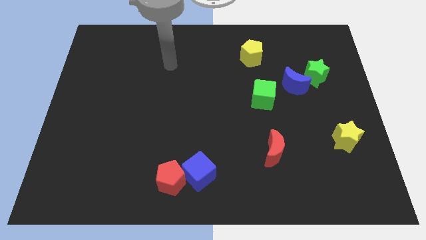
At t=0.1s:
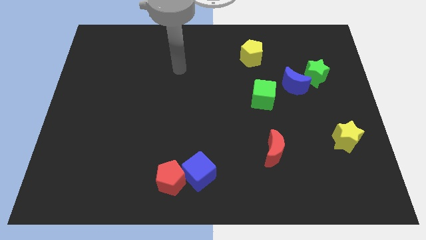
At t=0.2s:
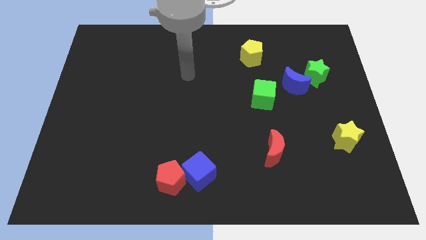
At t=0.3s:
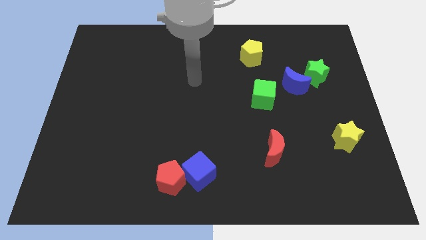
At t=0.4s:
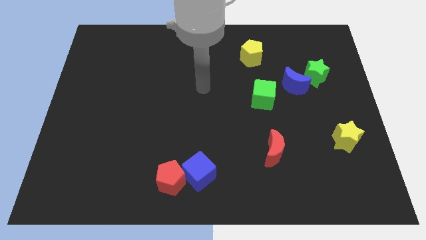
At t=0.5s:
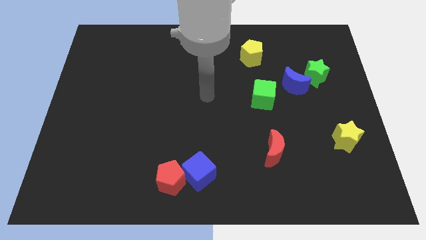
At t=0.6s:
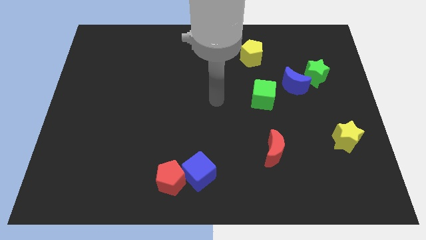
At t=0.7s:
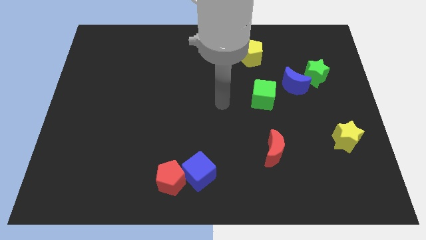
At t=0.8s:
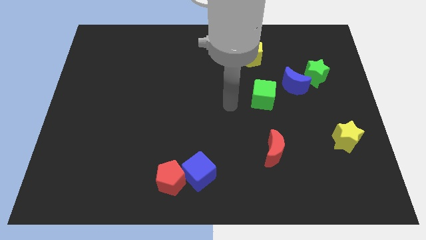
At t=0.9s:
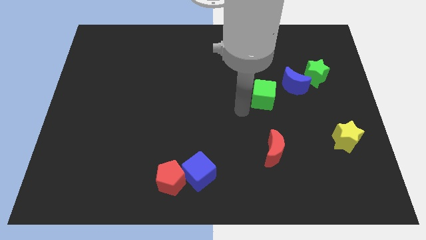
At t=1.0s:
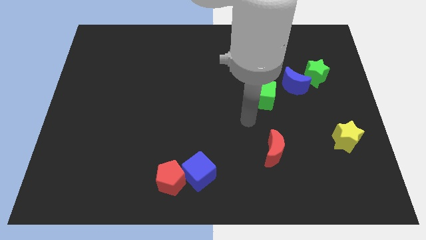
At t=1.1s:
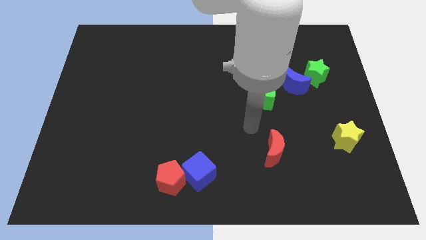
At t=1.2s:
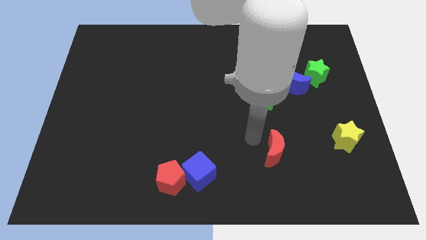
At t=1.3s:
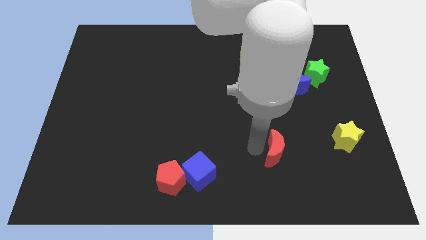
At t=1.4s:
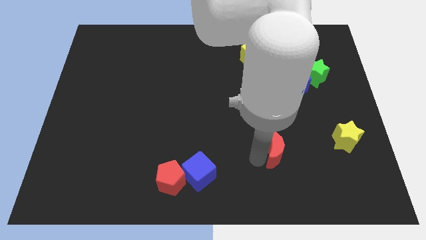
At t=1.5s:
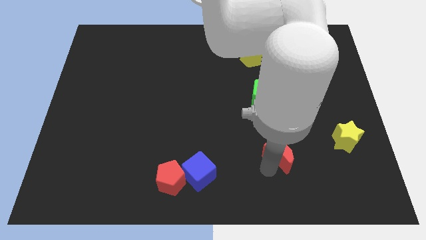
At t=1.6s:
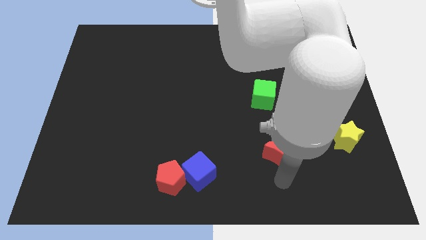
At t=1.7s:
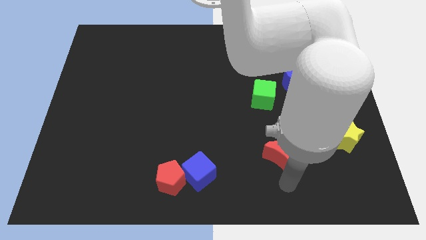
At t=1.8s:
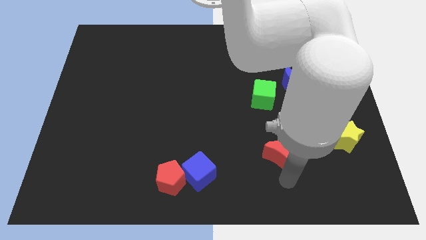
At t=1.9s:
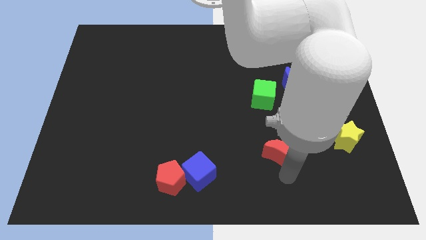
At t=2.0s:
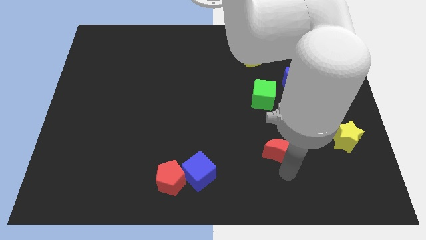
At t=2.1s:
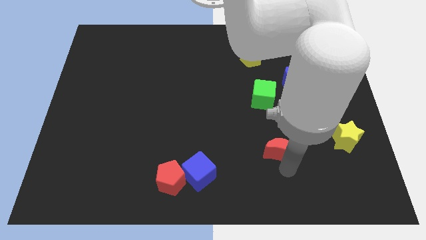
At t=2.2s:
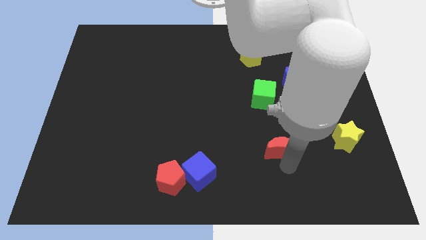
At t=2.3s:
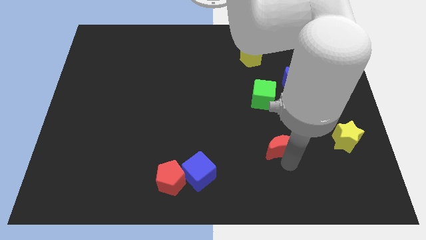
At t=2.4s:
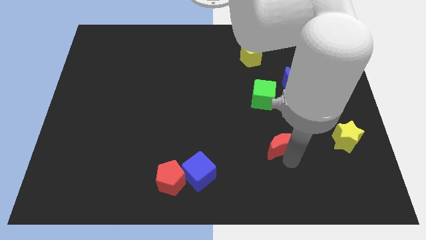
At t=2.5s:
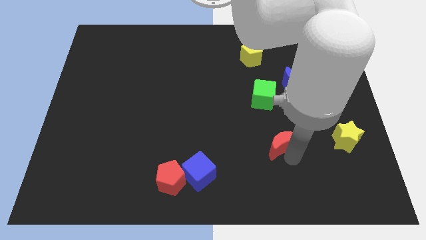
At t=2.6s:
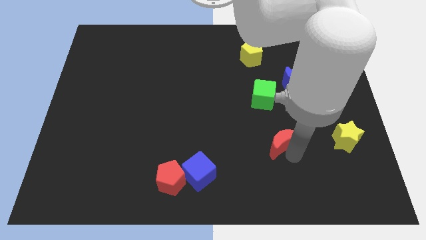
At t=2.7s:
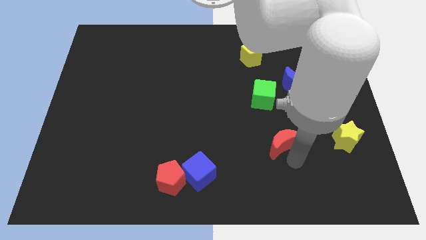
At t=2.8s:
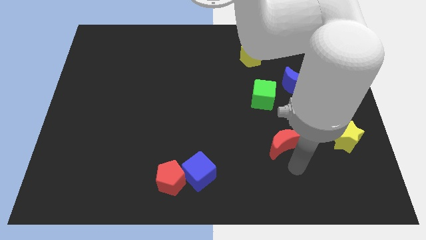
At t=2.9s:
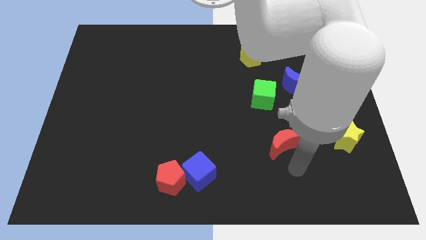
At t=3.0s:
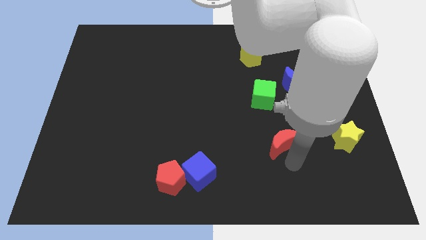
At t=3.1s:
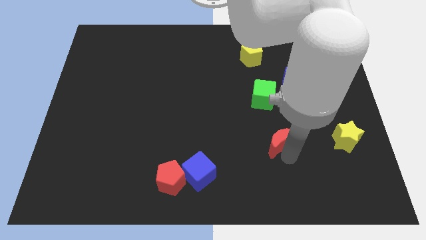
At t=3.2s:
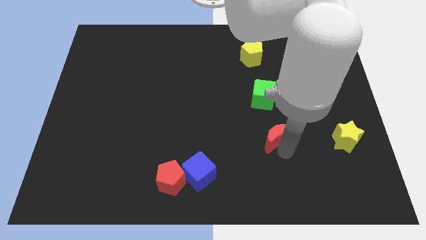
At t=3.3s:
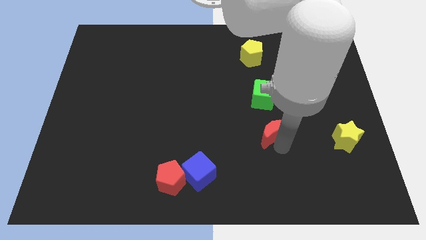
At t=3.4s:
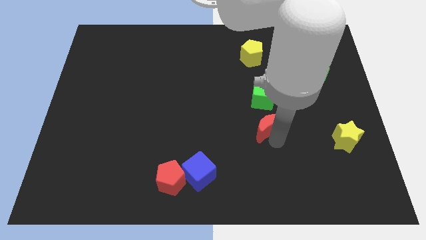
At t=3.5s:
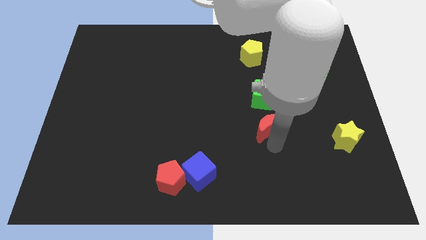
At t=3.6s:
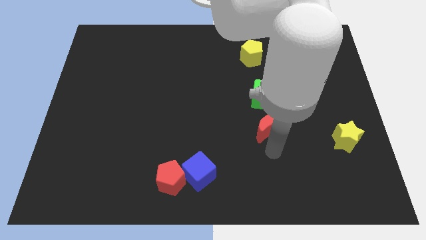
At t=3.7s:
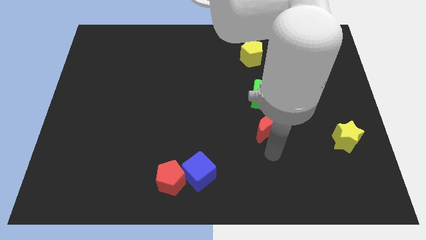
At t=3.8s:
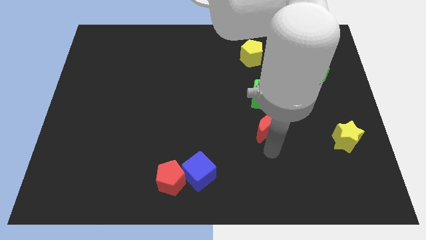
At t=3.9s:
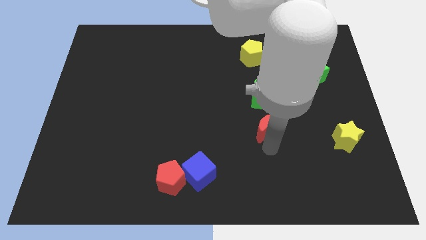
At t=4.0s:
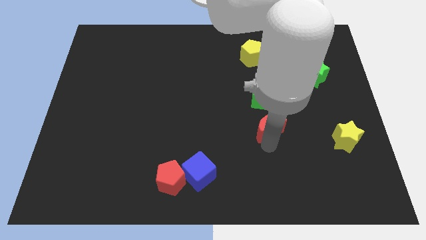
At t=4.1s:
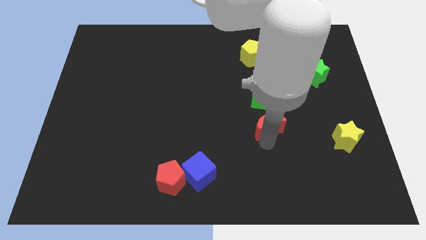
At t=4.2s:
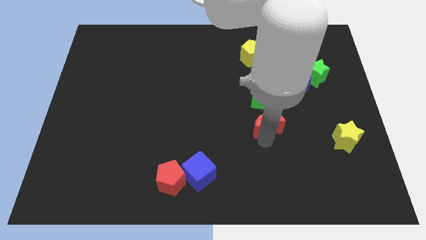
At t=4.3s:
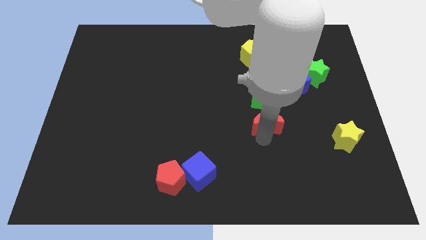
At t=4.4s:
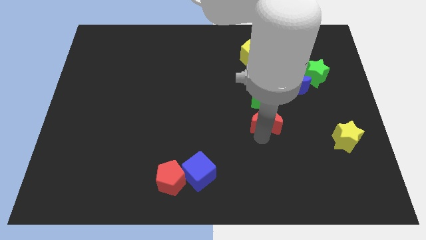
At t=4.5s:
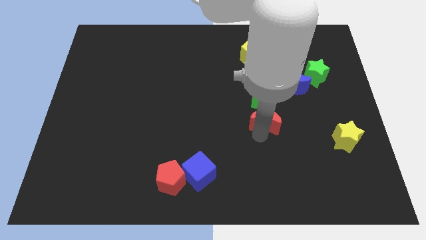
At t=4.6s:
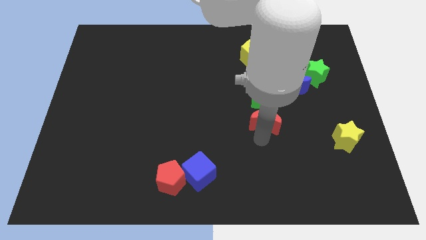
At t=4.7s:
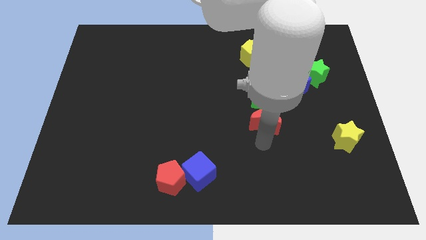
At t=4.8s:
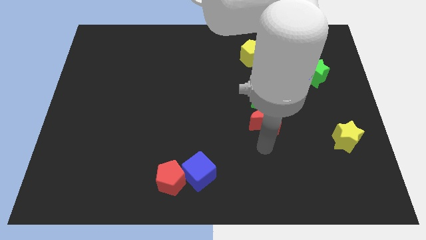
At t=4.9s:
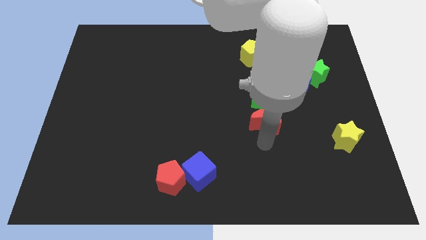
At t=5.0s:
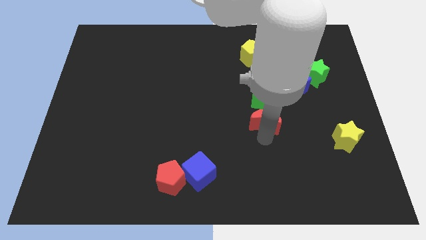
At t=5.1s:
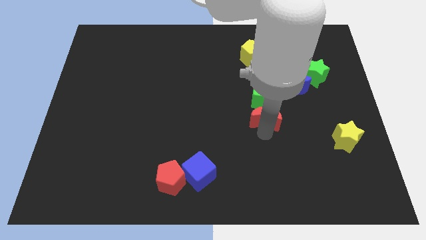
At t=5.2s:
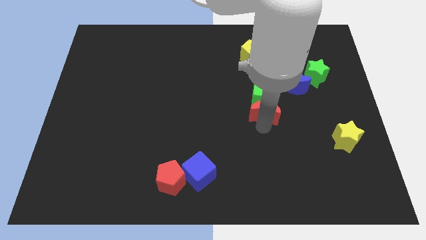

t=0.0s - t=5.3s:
push the red moon diagonally down and to the left of the blue moon

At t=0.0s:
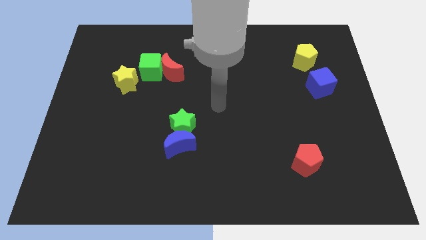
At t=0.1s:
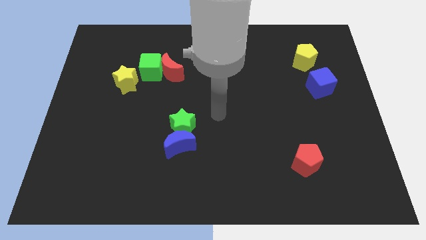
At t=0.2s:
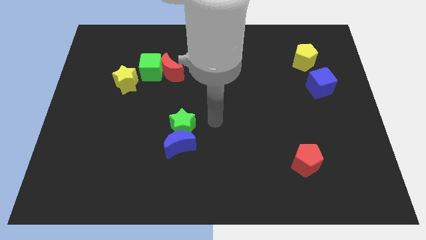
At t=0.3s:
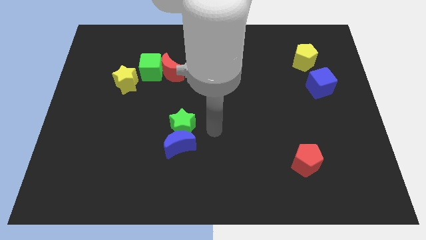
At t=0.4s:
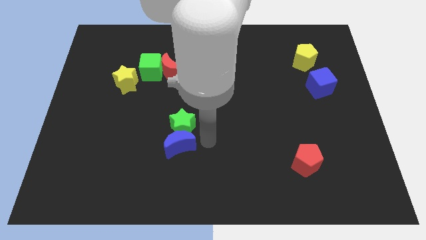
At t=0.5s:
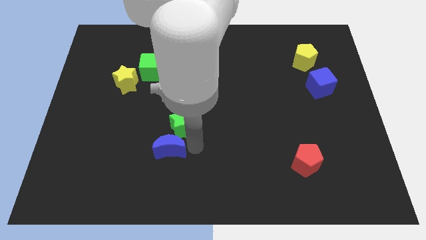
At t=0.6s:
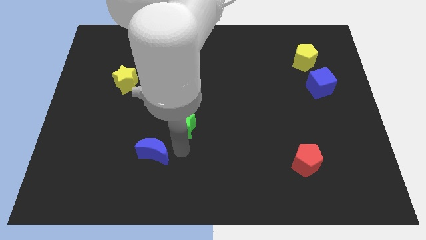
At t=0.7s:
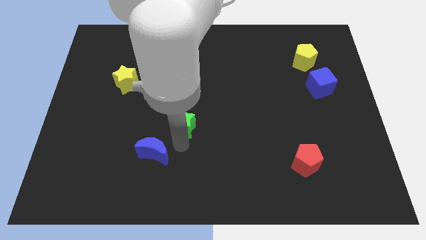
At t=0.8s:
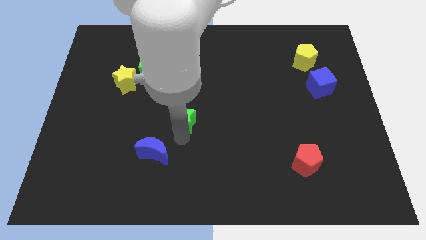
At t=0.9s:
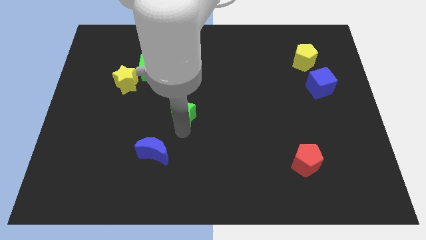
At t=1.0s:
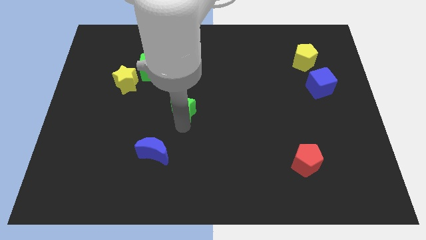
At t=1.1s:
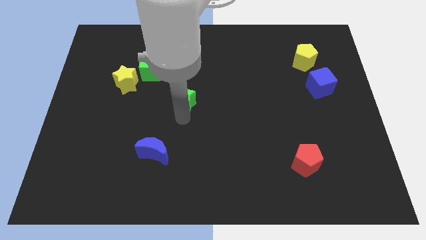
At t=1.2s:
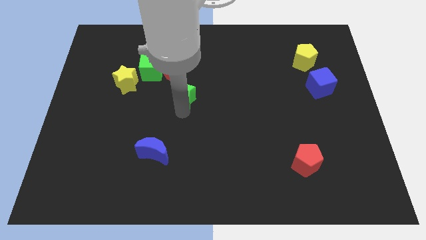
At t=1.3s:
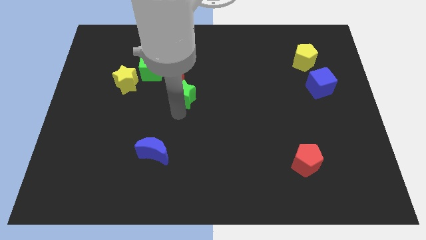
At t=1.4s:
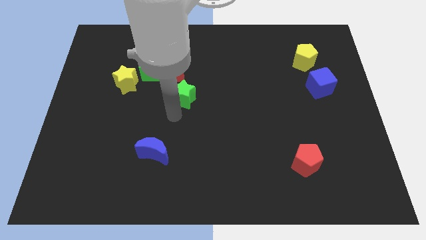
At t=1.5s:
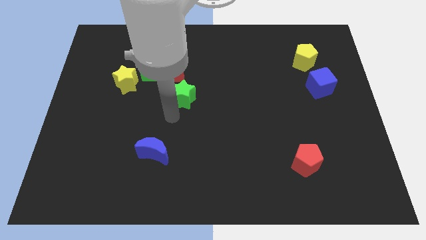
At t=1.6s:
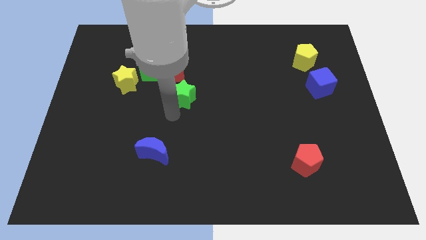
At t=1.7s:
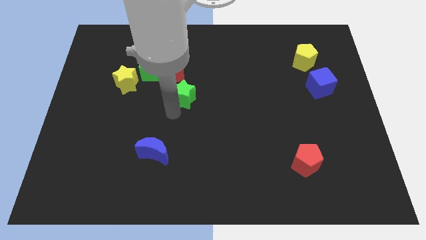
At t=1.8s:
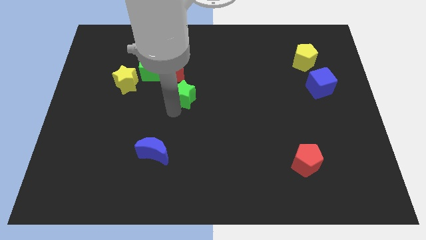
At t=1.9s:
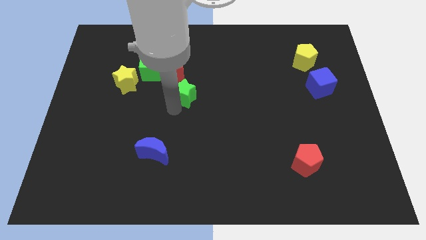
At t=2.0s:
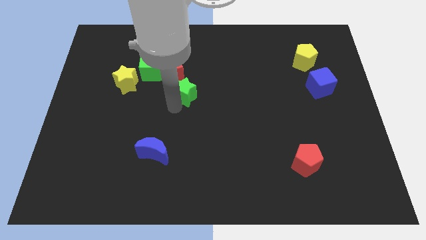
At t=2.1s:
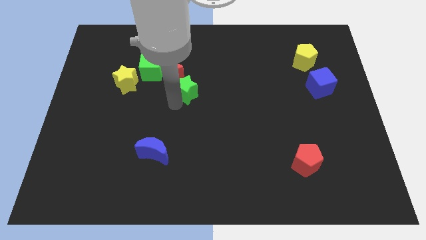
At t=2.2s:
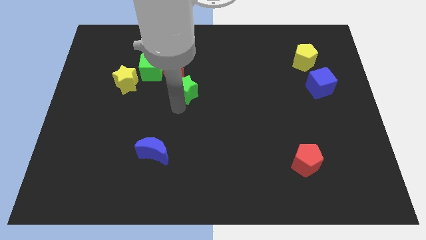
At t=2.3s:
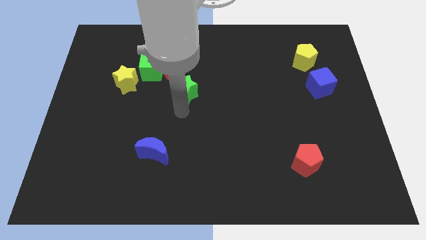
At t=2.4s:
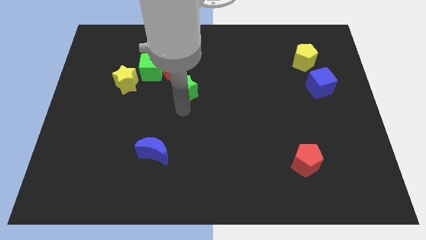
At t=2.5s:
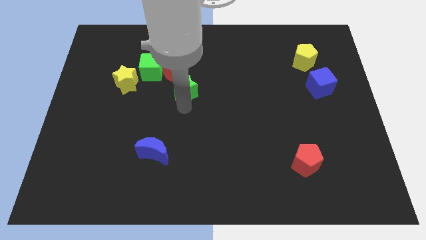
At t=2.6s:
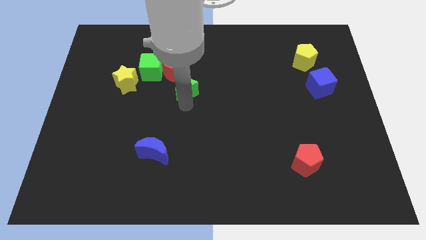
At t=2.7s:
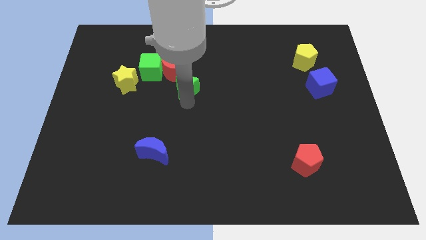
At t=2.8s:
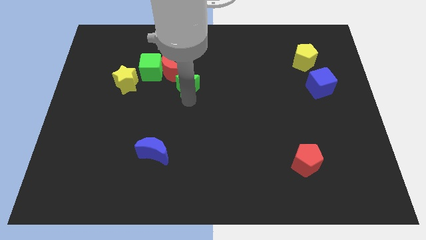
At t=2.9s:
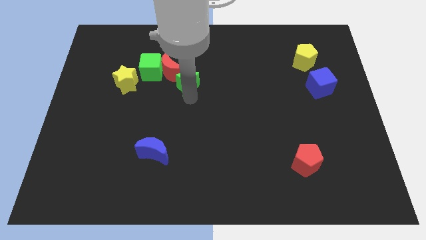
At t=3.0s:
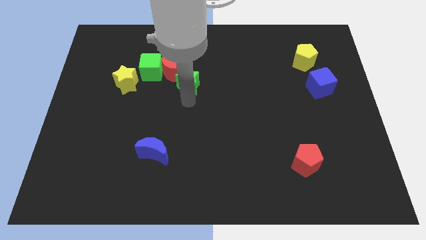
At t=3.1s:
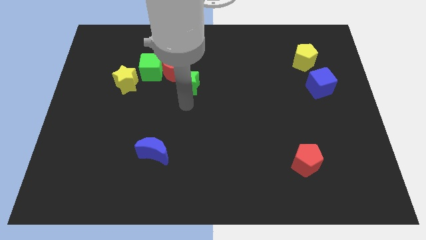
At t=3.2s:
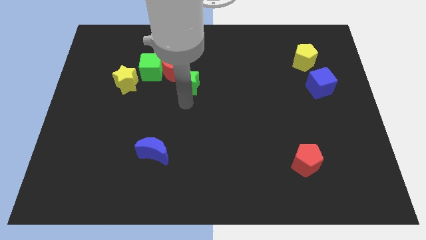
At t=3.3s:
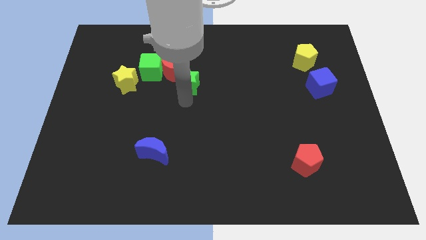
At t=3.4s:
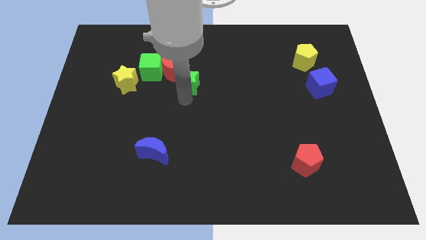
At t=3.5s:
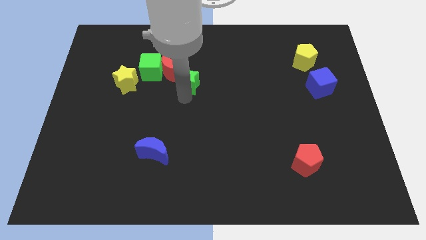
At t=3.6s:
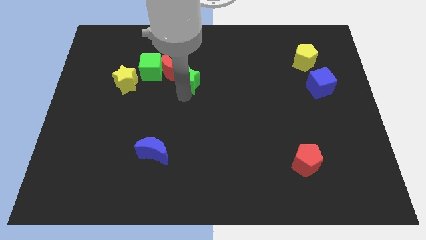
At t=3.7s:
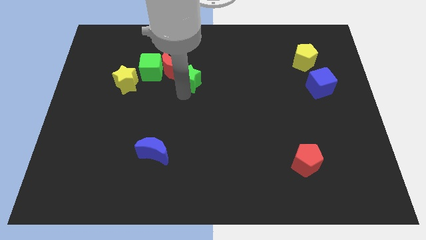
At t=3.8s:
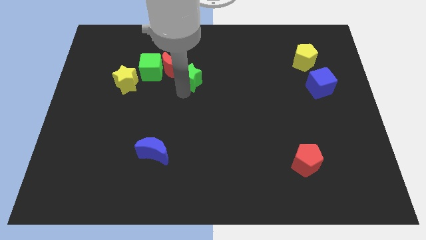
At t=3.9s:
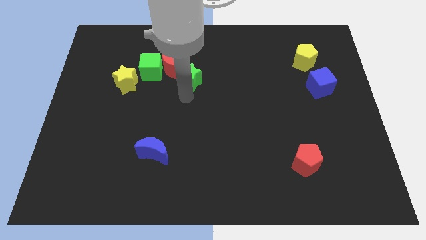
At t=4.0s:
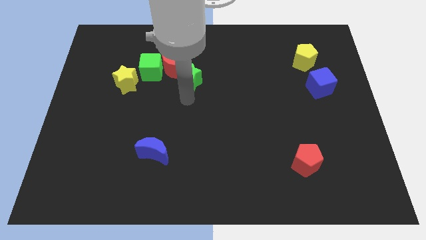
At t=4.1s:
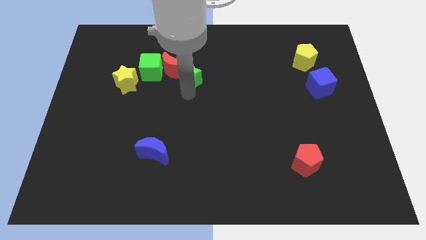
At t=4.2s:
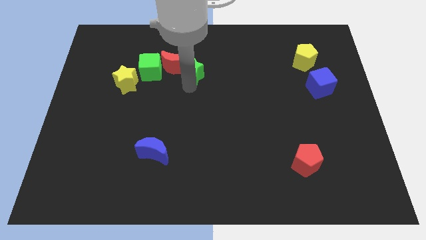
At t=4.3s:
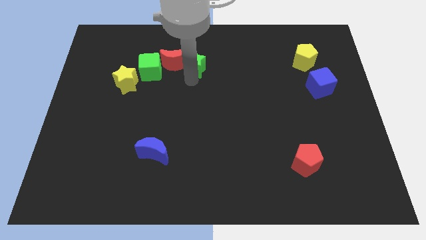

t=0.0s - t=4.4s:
put the green star to the top right side of the red moon
